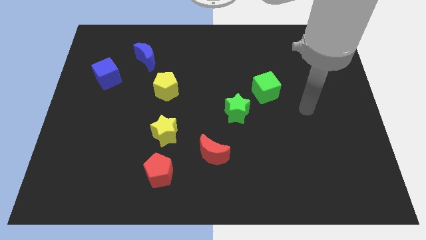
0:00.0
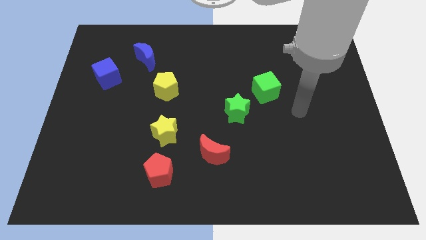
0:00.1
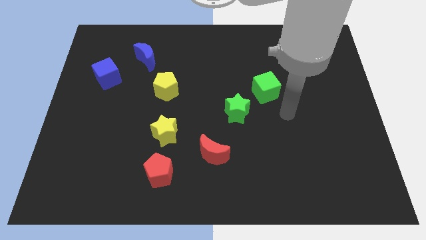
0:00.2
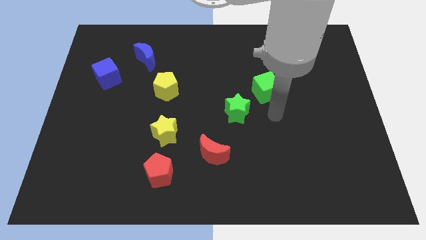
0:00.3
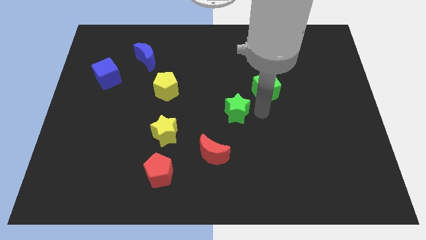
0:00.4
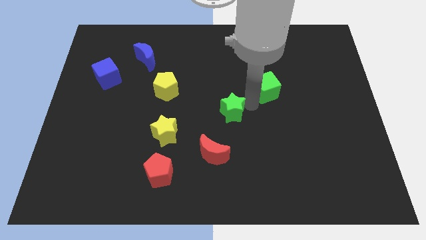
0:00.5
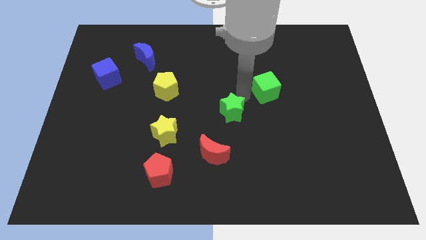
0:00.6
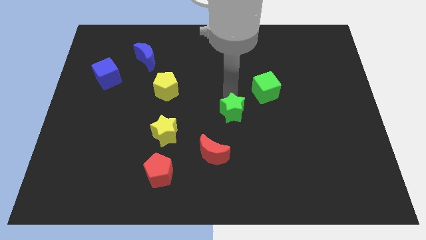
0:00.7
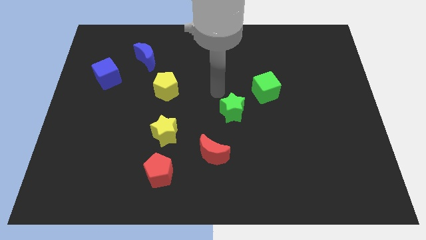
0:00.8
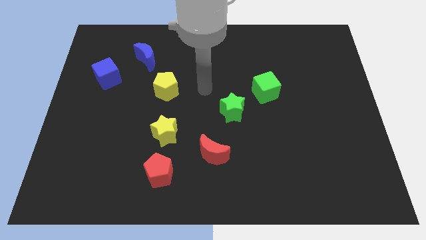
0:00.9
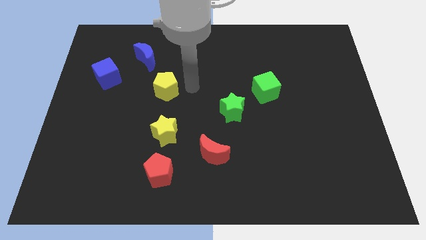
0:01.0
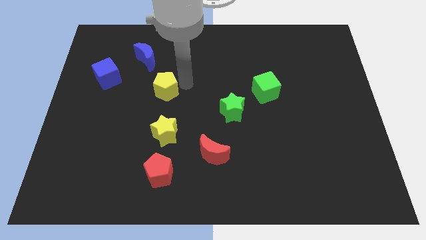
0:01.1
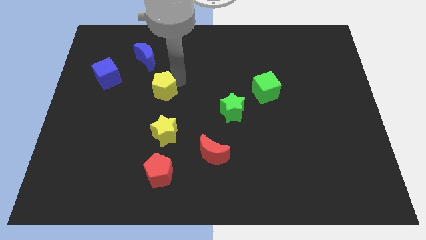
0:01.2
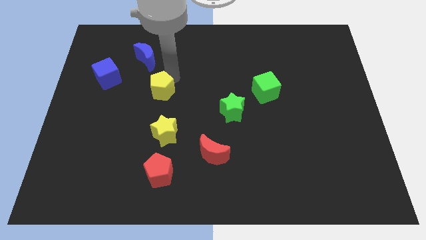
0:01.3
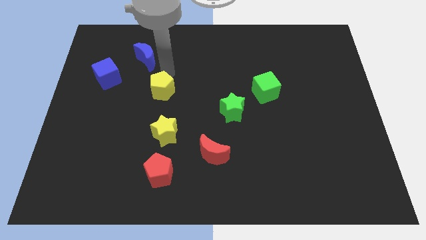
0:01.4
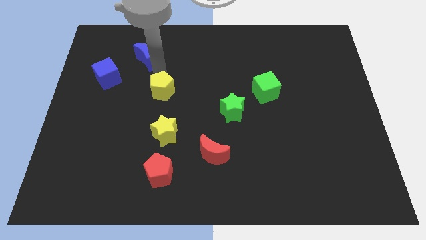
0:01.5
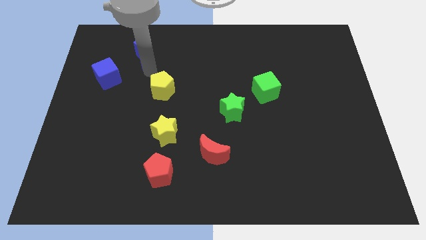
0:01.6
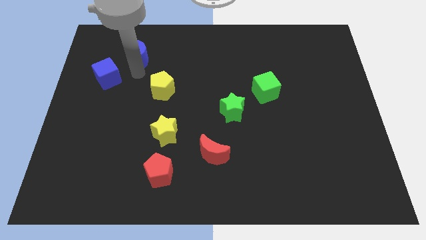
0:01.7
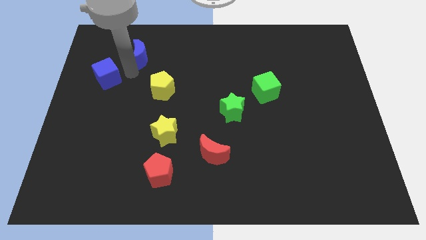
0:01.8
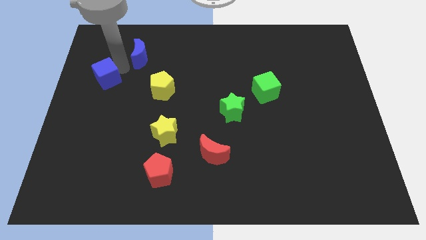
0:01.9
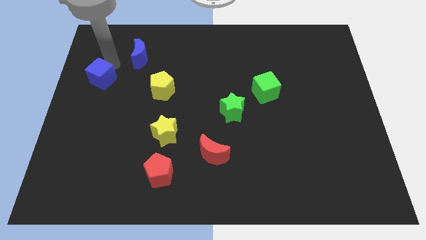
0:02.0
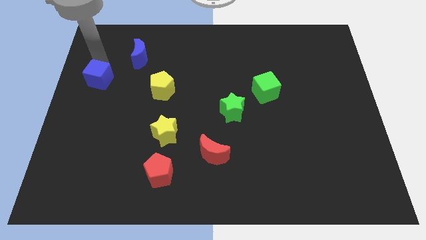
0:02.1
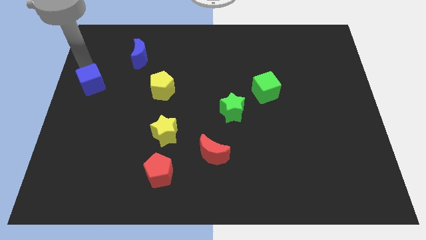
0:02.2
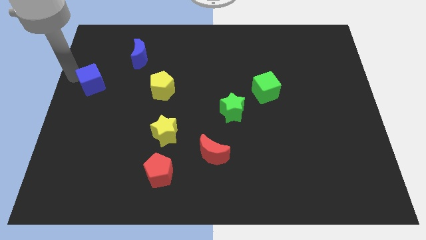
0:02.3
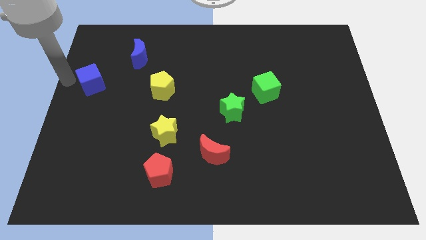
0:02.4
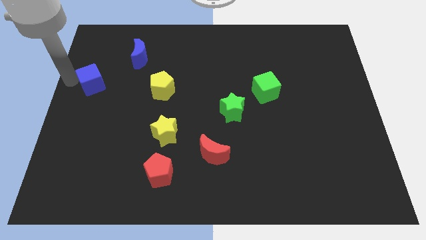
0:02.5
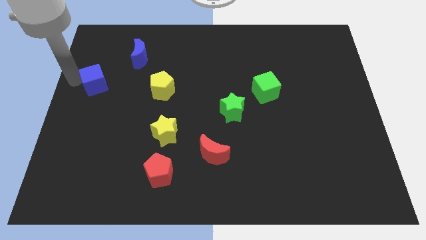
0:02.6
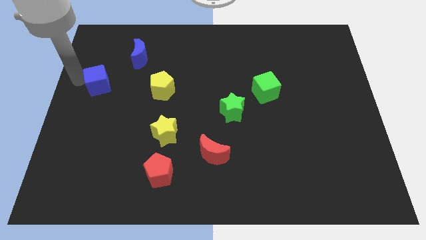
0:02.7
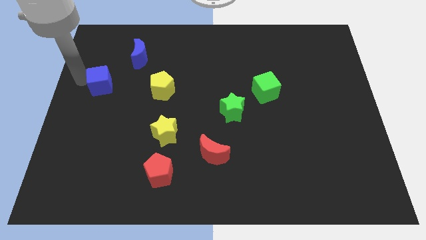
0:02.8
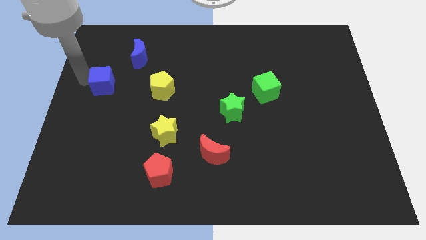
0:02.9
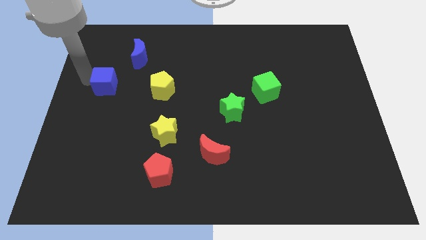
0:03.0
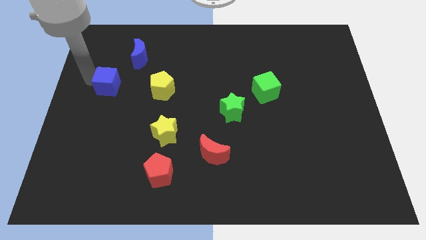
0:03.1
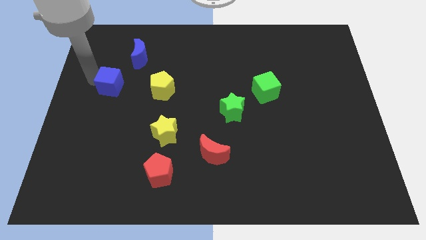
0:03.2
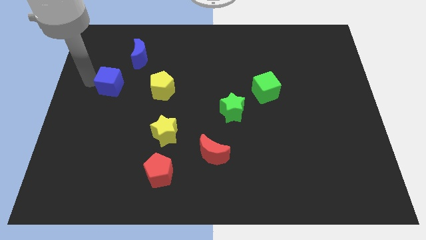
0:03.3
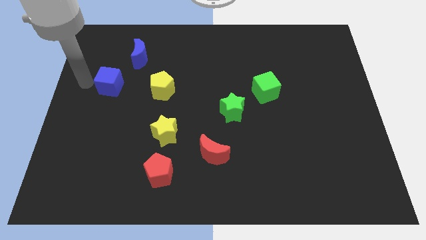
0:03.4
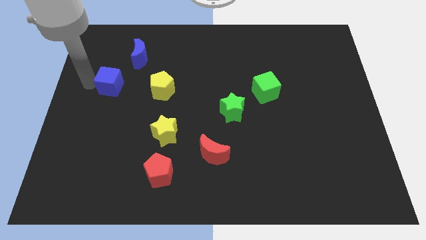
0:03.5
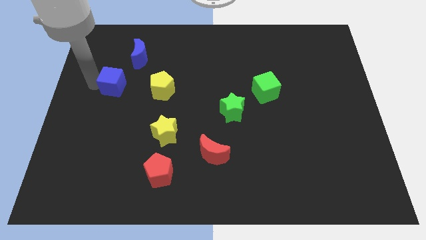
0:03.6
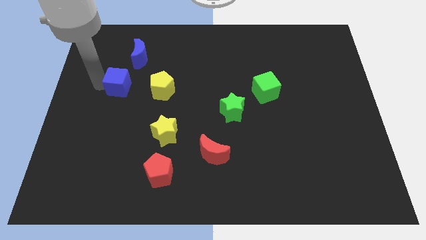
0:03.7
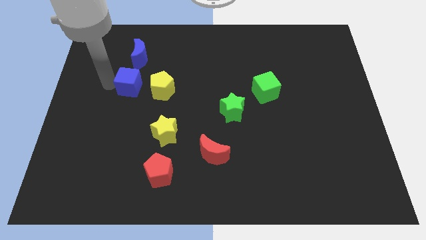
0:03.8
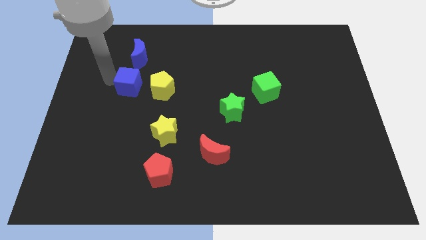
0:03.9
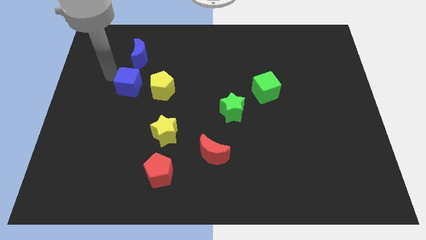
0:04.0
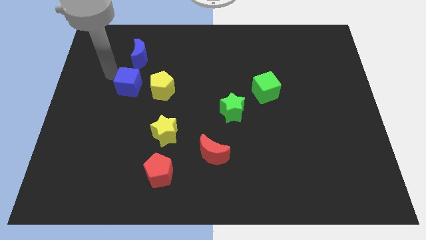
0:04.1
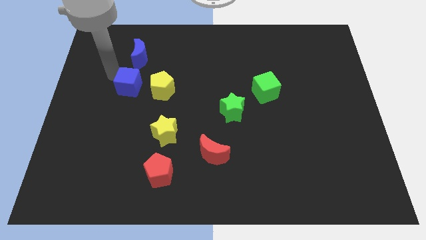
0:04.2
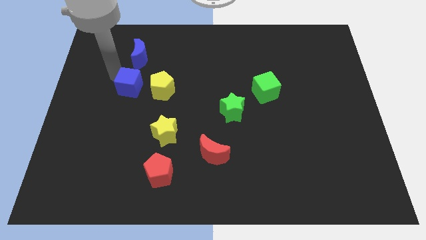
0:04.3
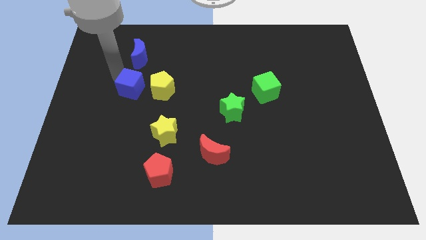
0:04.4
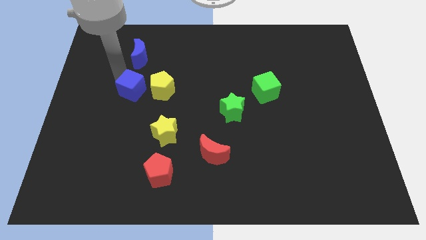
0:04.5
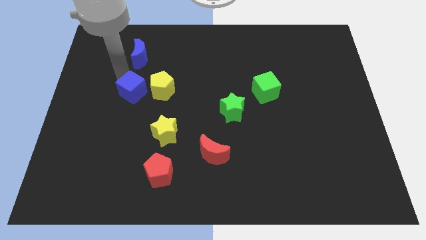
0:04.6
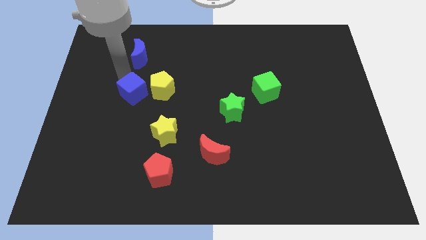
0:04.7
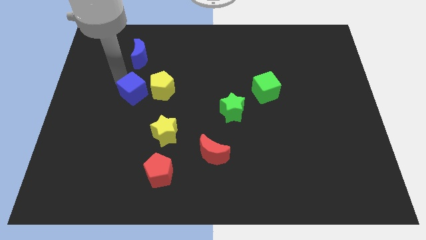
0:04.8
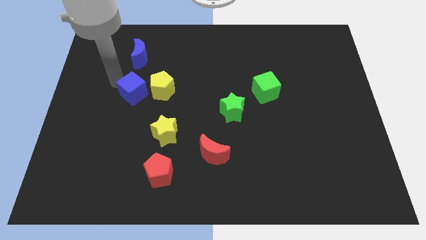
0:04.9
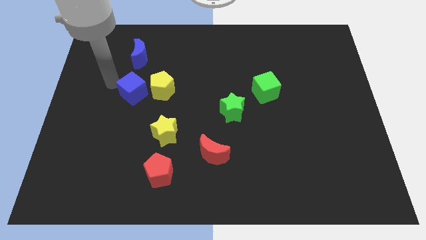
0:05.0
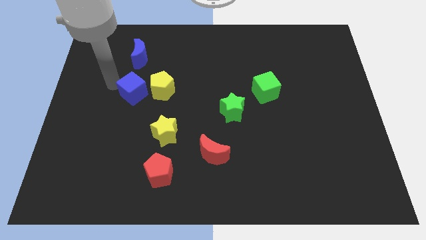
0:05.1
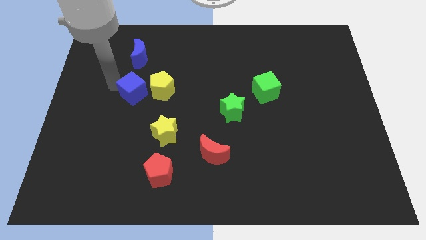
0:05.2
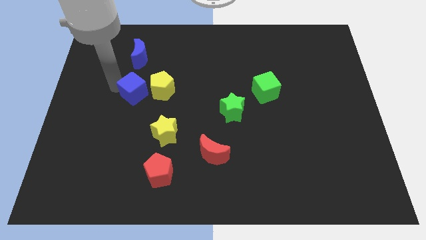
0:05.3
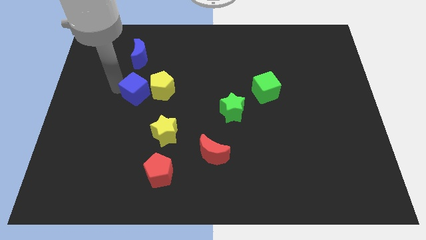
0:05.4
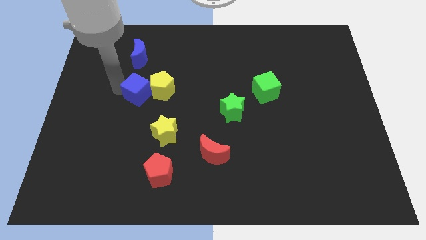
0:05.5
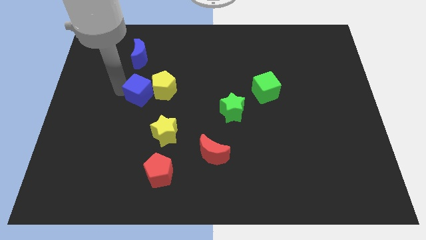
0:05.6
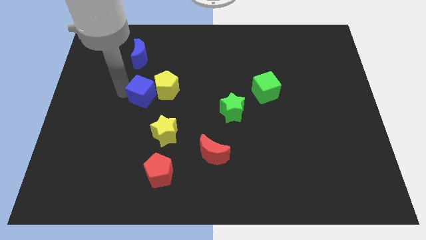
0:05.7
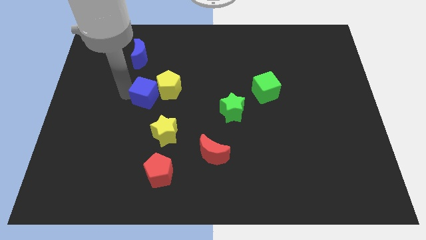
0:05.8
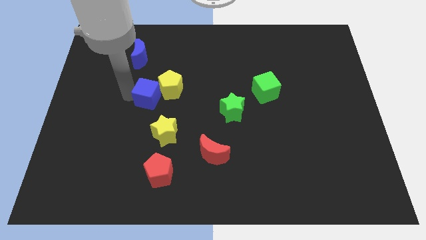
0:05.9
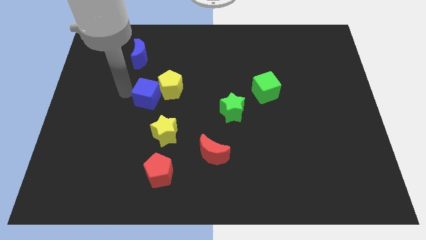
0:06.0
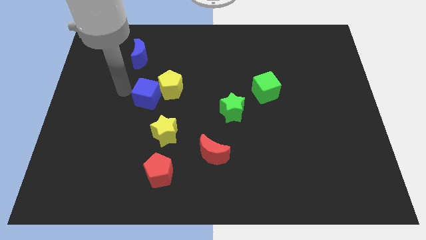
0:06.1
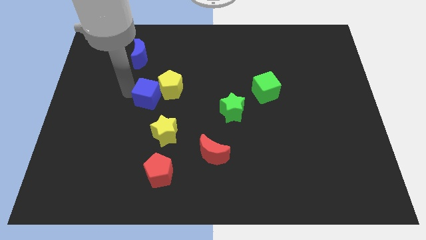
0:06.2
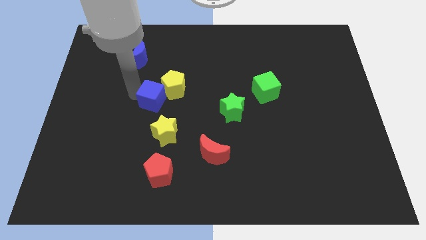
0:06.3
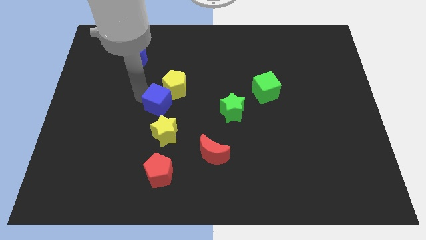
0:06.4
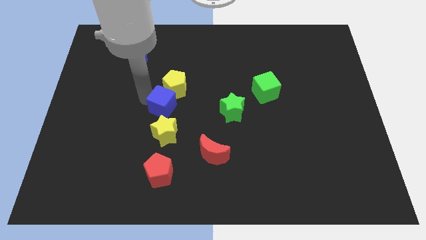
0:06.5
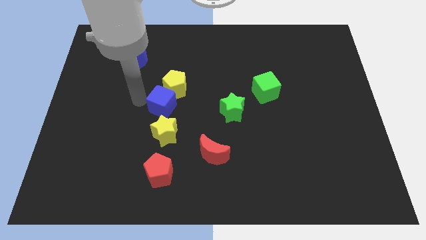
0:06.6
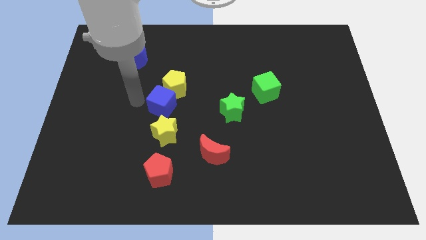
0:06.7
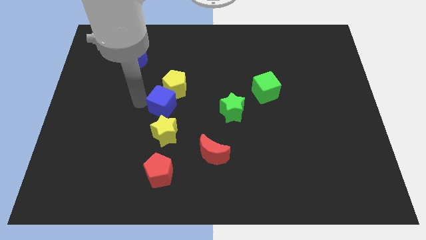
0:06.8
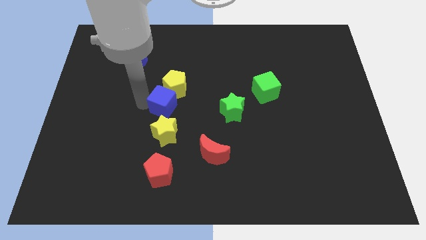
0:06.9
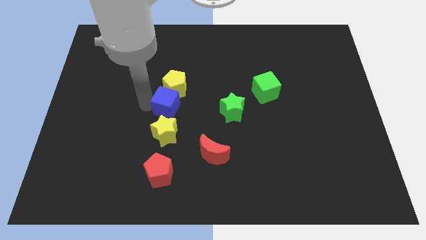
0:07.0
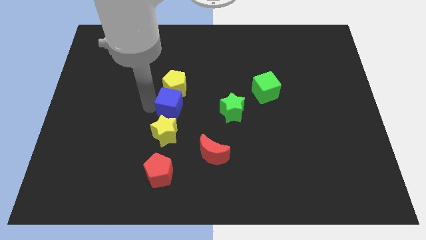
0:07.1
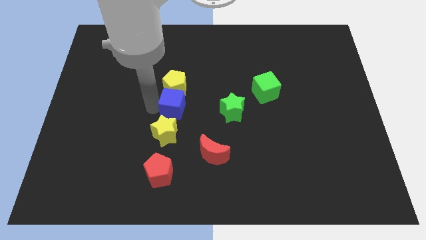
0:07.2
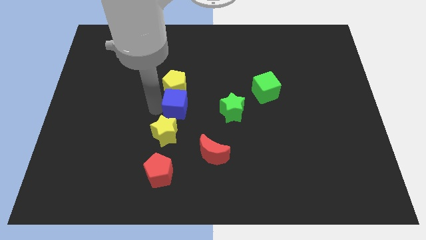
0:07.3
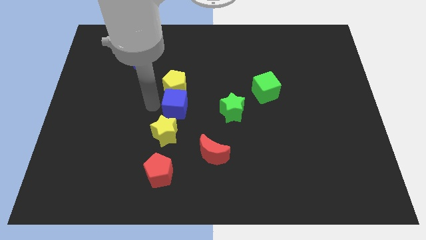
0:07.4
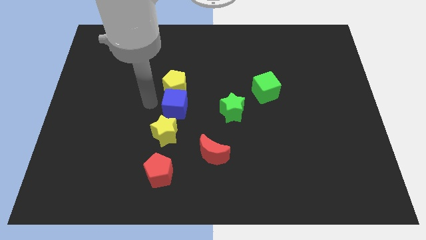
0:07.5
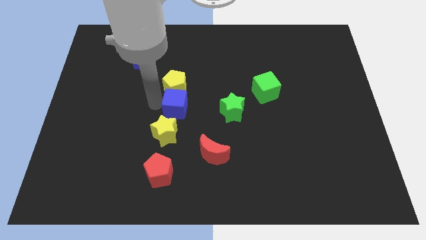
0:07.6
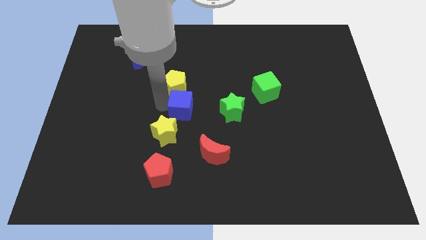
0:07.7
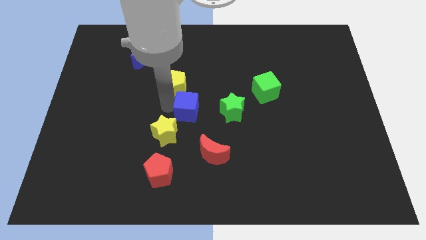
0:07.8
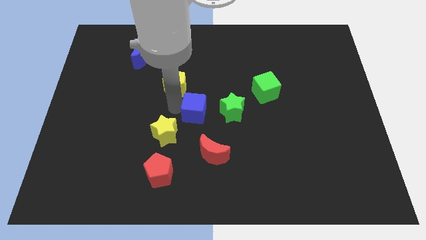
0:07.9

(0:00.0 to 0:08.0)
move the blue cube above the red moon

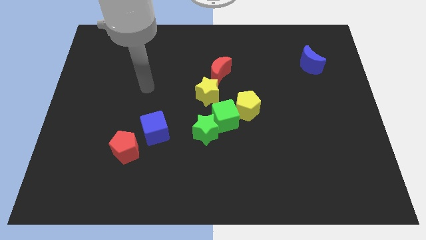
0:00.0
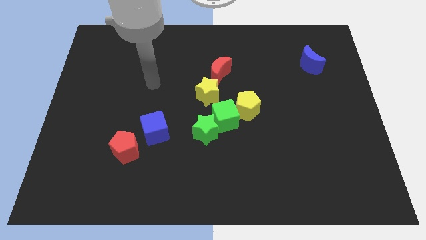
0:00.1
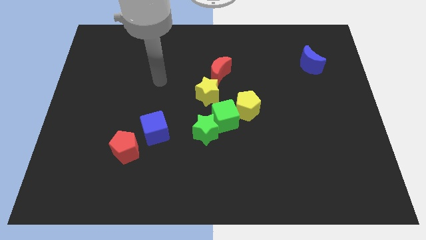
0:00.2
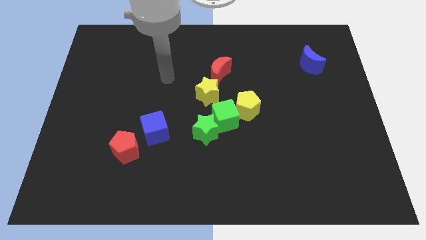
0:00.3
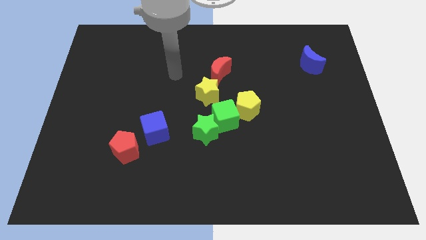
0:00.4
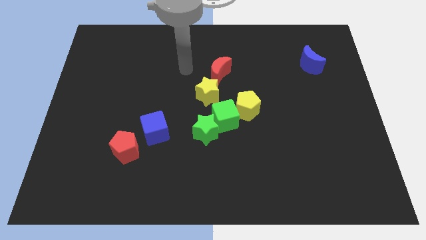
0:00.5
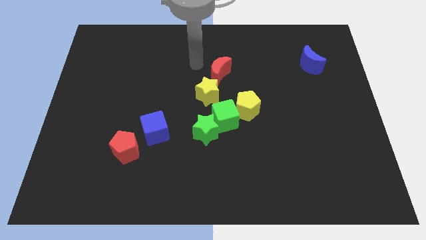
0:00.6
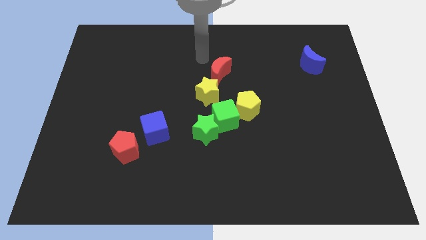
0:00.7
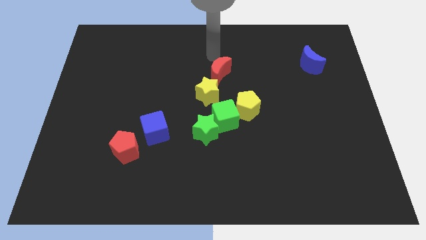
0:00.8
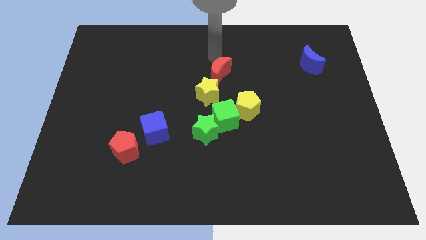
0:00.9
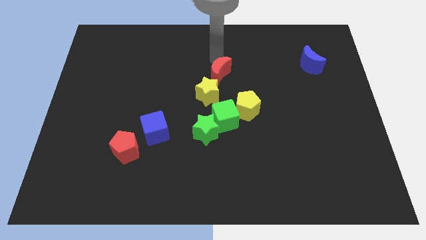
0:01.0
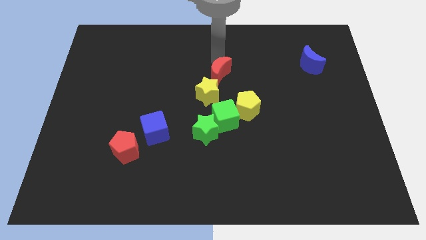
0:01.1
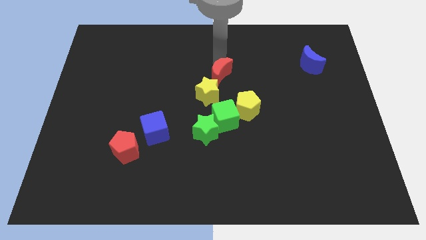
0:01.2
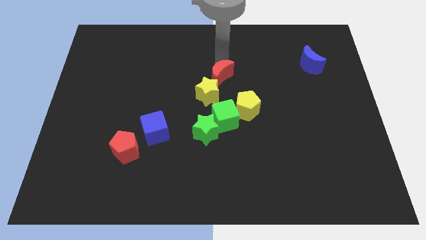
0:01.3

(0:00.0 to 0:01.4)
push the red moon diagonally up and to the left of the yellow pentagon
